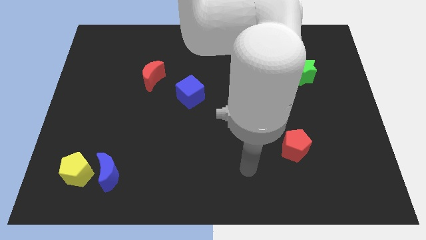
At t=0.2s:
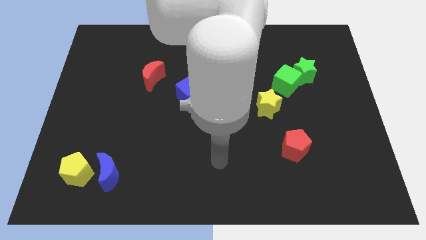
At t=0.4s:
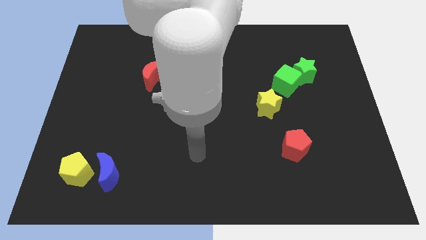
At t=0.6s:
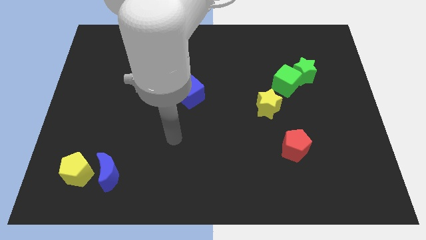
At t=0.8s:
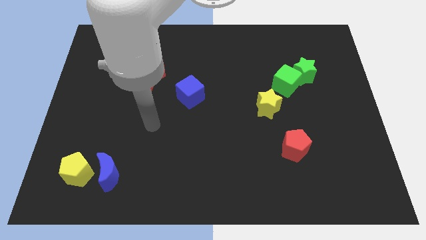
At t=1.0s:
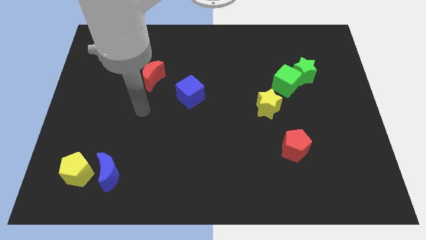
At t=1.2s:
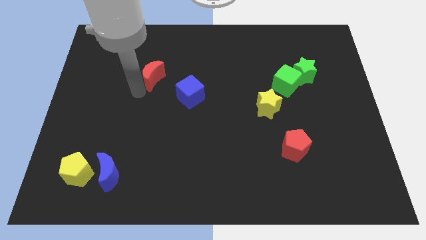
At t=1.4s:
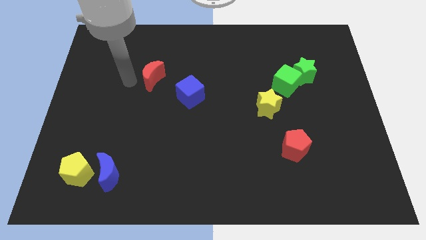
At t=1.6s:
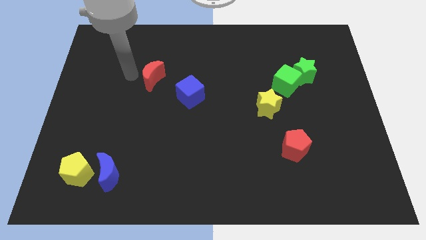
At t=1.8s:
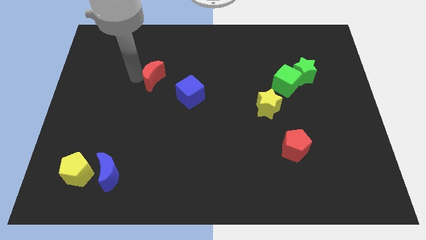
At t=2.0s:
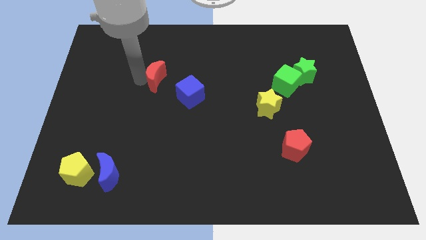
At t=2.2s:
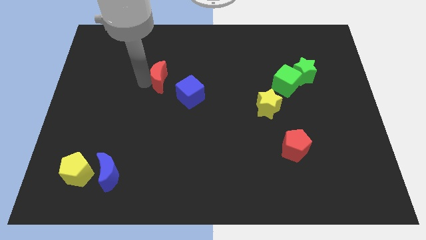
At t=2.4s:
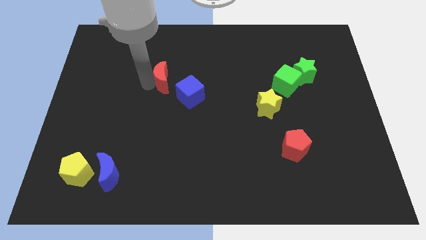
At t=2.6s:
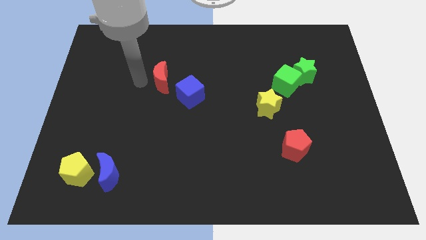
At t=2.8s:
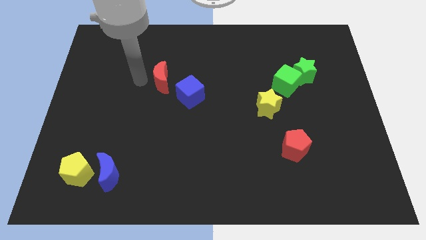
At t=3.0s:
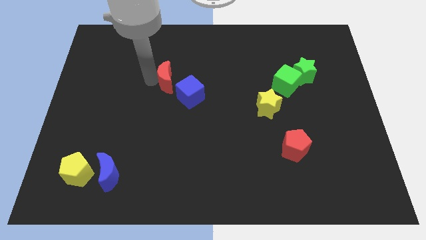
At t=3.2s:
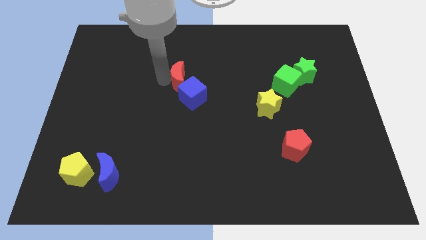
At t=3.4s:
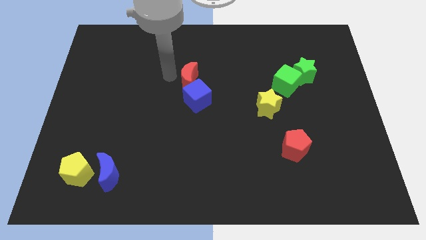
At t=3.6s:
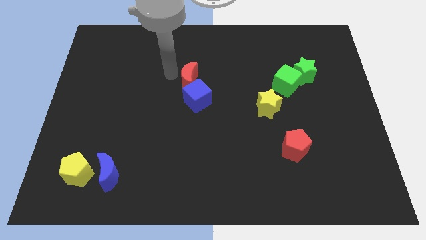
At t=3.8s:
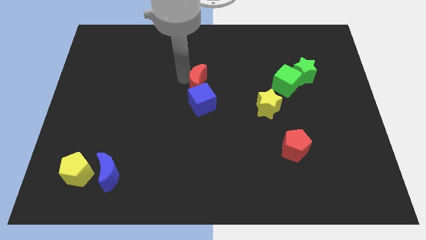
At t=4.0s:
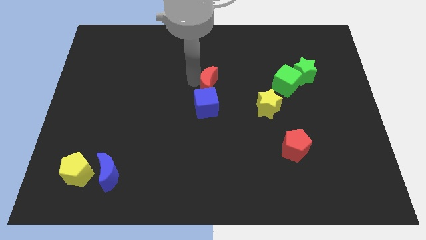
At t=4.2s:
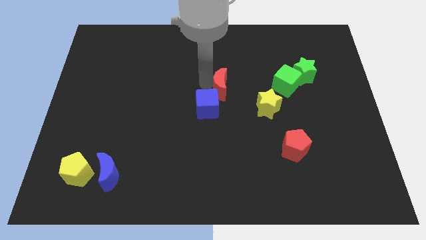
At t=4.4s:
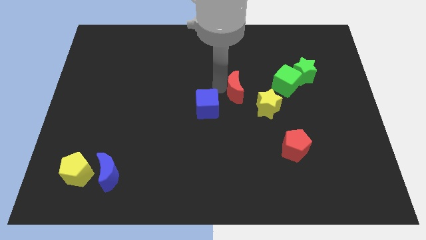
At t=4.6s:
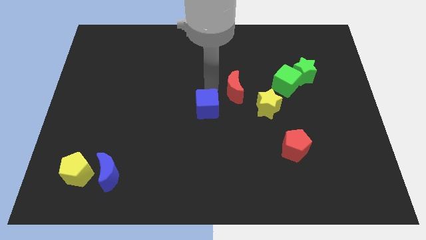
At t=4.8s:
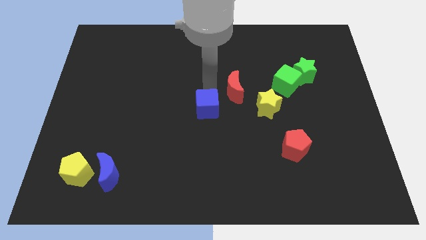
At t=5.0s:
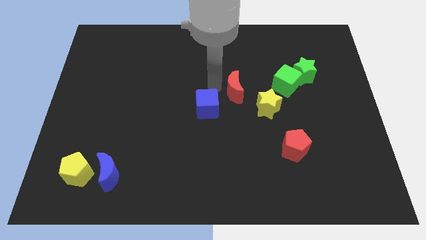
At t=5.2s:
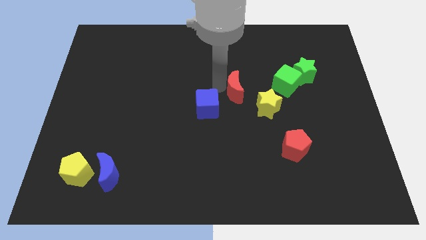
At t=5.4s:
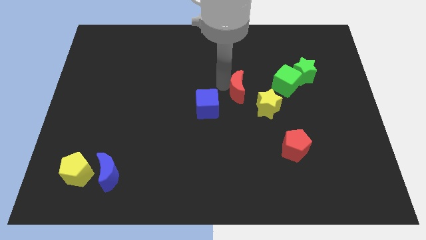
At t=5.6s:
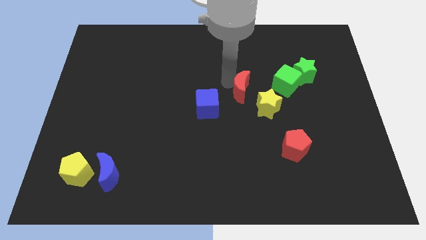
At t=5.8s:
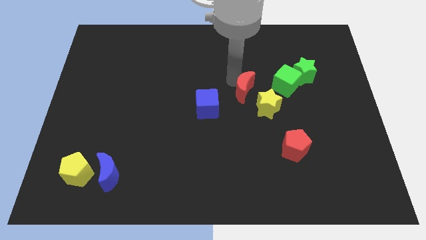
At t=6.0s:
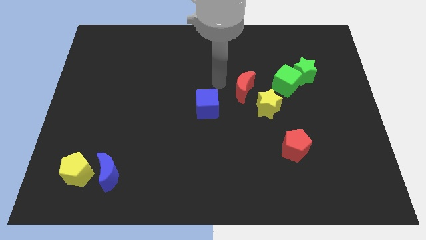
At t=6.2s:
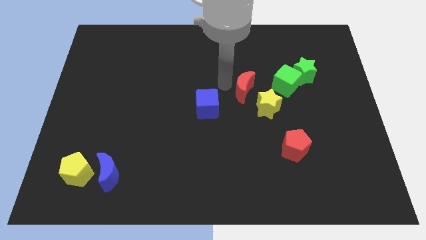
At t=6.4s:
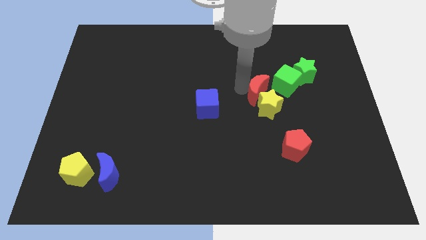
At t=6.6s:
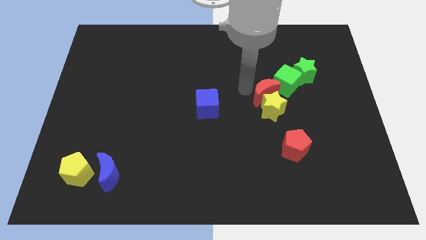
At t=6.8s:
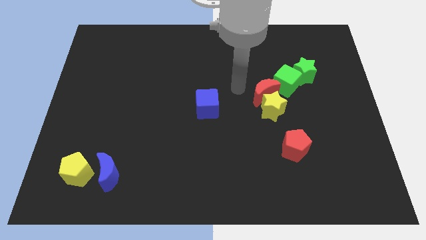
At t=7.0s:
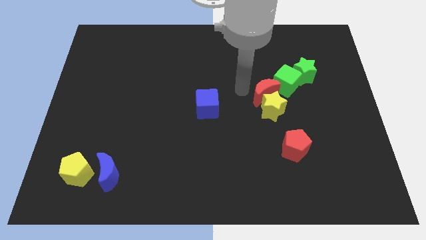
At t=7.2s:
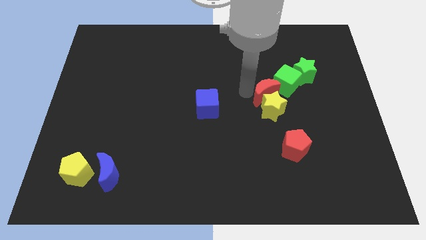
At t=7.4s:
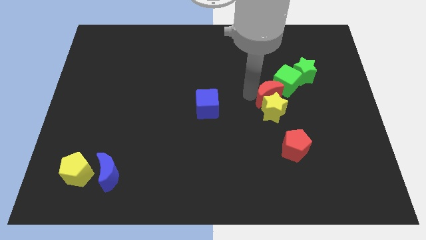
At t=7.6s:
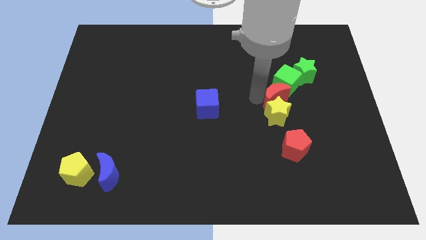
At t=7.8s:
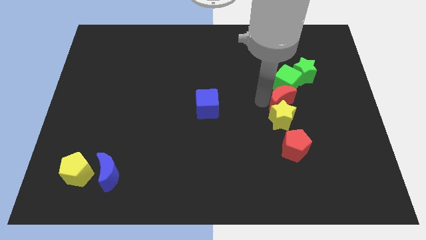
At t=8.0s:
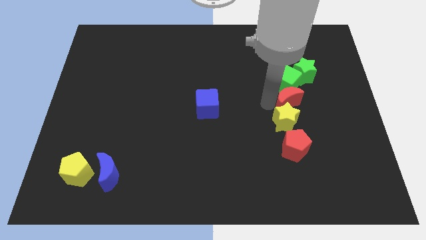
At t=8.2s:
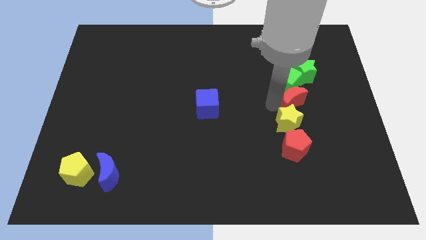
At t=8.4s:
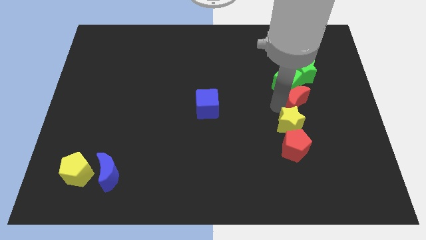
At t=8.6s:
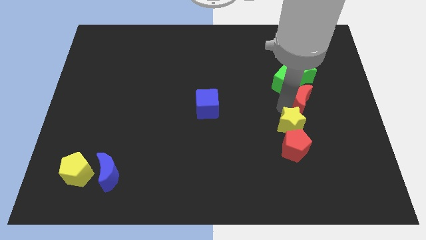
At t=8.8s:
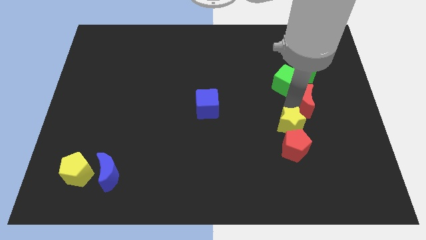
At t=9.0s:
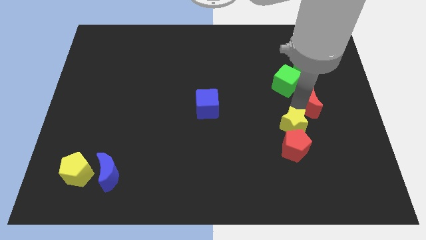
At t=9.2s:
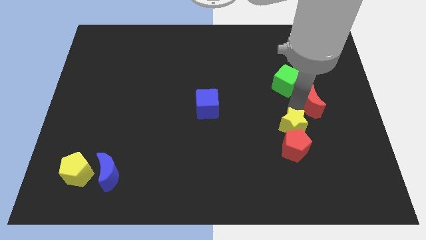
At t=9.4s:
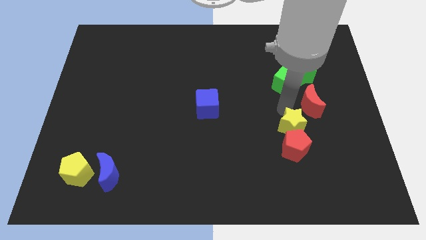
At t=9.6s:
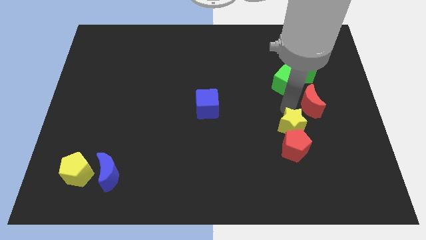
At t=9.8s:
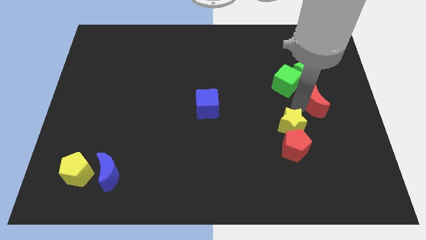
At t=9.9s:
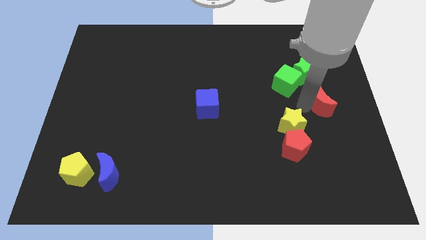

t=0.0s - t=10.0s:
push the red moon to the center right

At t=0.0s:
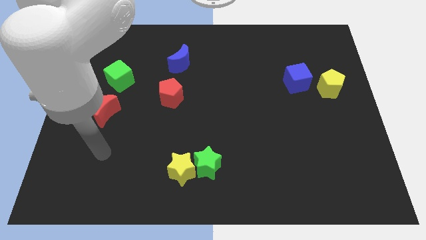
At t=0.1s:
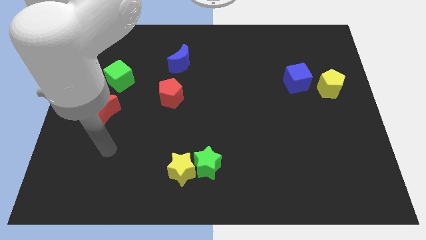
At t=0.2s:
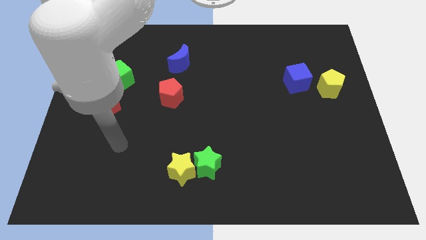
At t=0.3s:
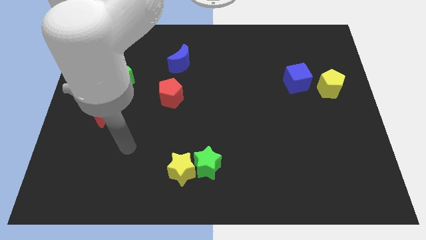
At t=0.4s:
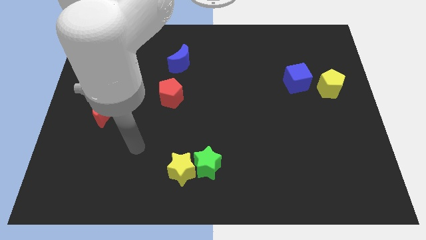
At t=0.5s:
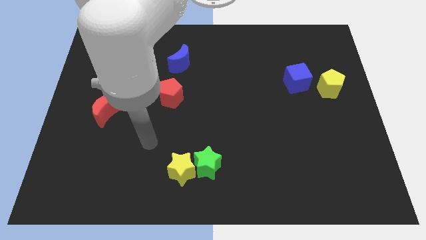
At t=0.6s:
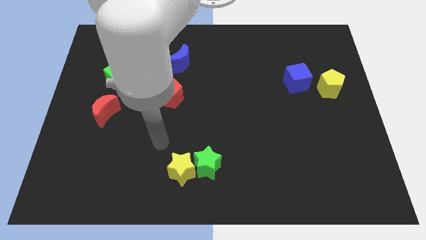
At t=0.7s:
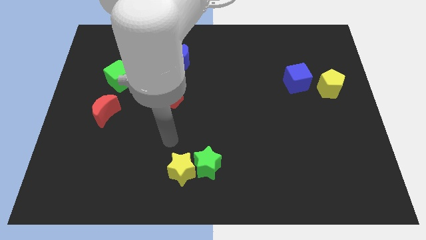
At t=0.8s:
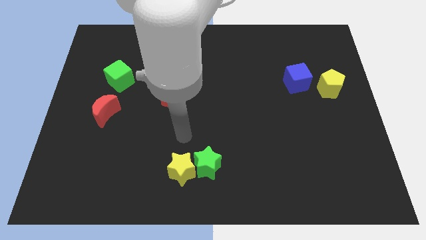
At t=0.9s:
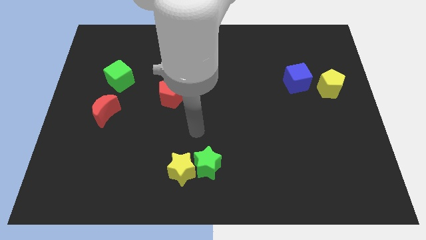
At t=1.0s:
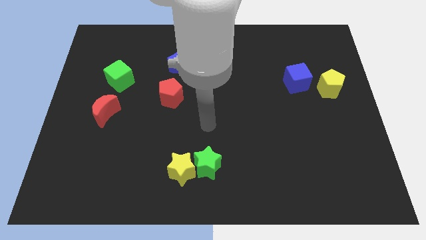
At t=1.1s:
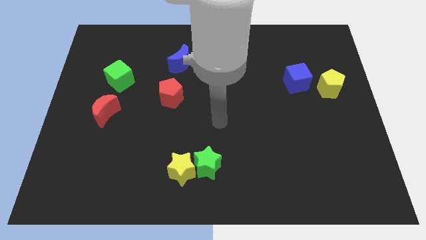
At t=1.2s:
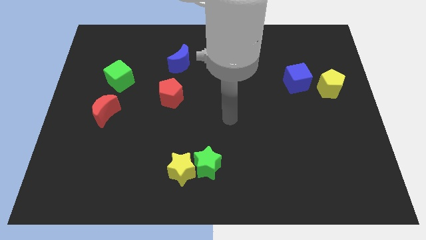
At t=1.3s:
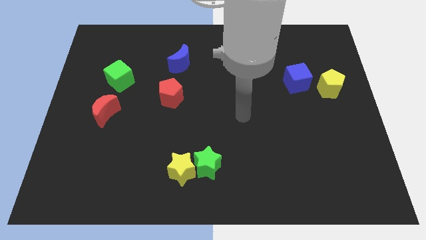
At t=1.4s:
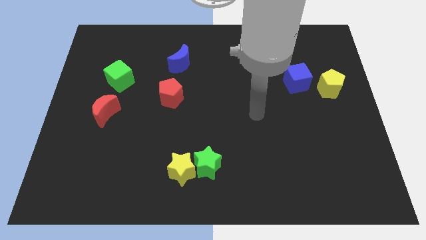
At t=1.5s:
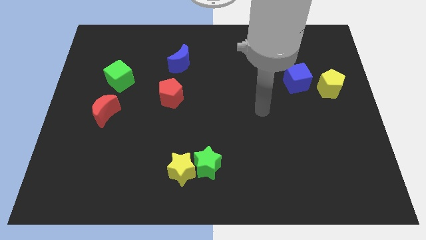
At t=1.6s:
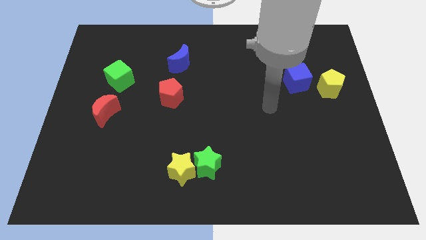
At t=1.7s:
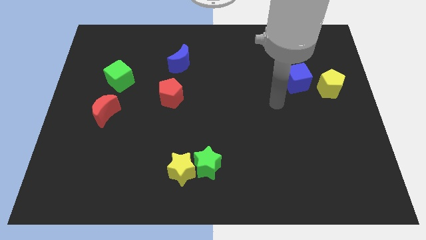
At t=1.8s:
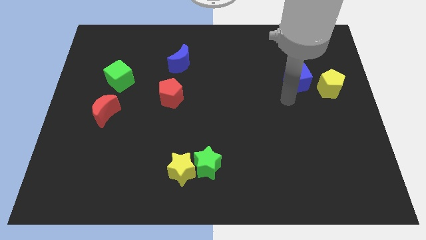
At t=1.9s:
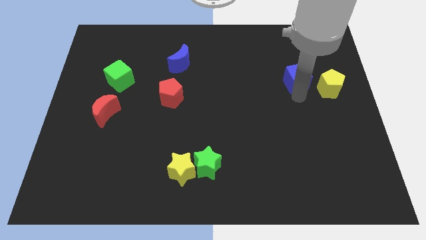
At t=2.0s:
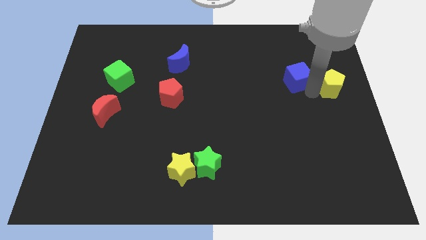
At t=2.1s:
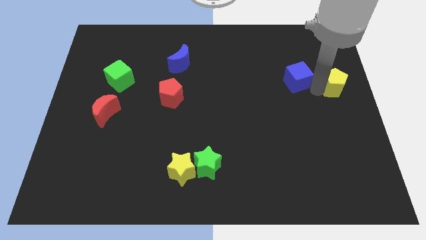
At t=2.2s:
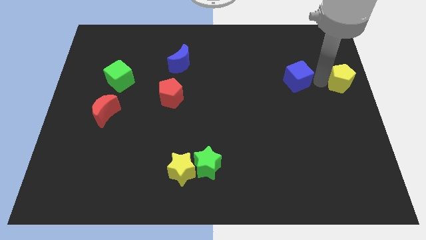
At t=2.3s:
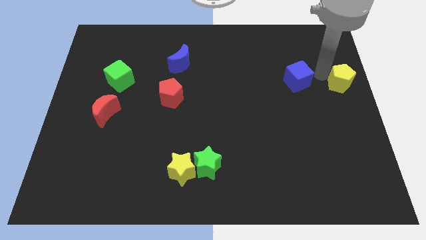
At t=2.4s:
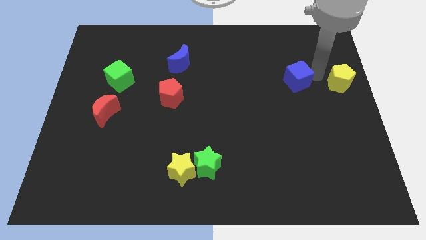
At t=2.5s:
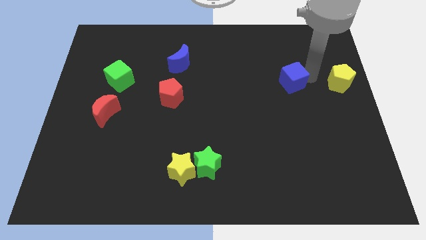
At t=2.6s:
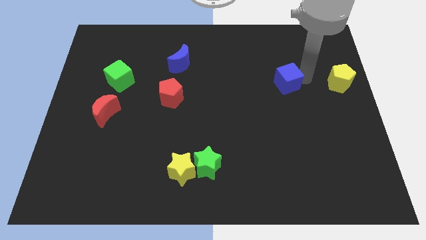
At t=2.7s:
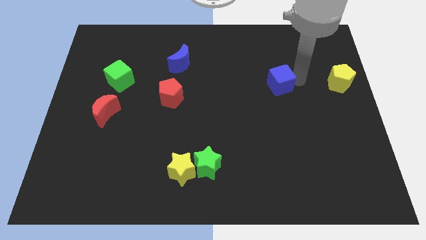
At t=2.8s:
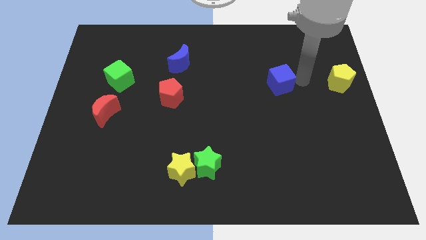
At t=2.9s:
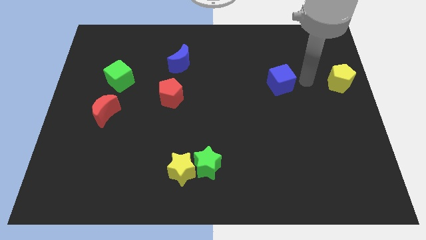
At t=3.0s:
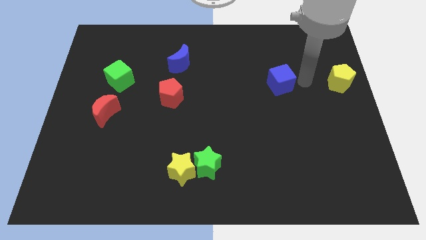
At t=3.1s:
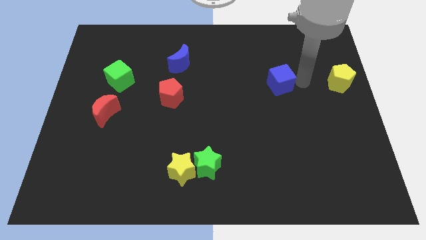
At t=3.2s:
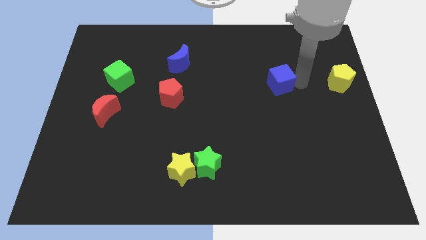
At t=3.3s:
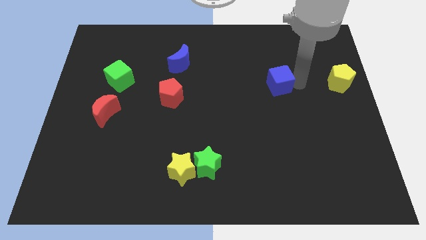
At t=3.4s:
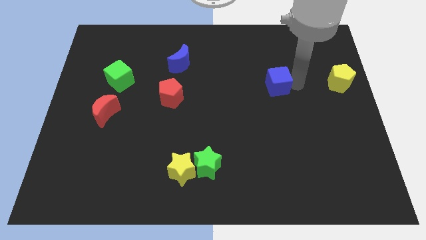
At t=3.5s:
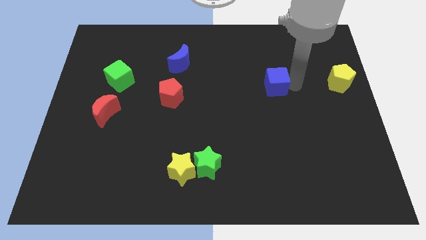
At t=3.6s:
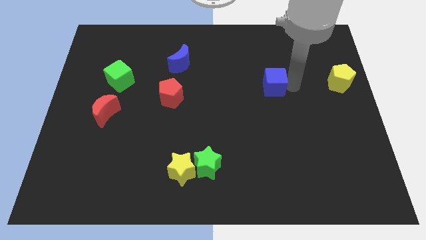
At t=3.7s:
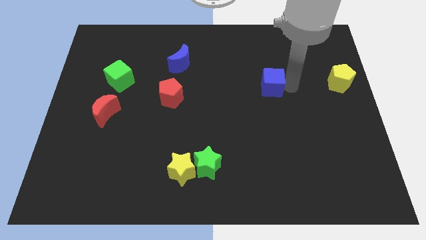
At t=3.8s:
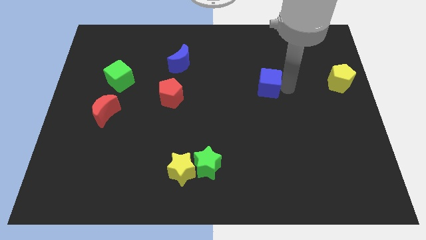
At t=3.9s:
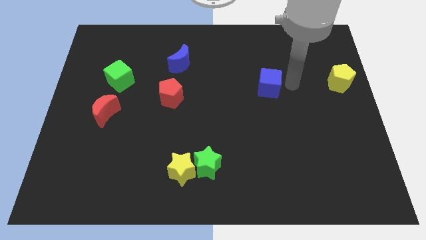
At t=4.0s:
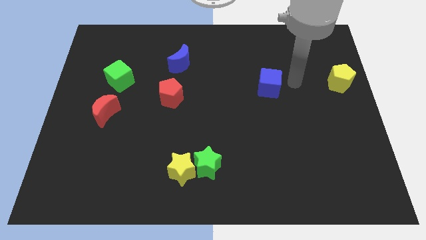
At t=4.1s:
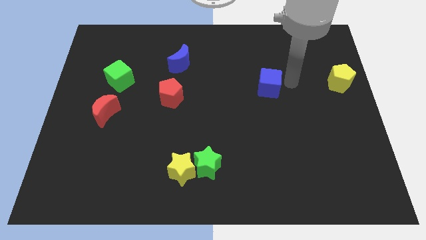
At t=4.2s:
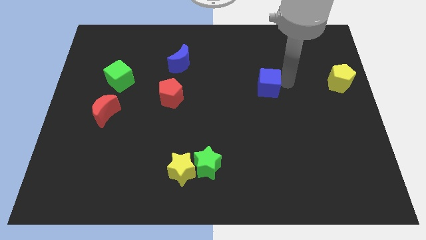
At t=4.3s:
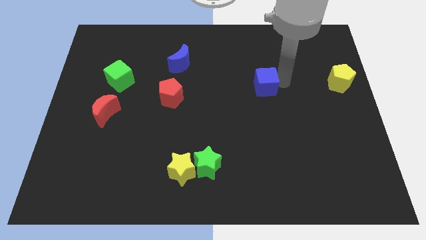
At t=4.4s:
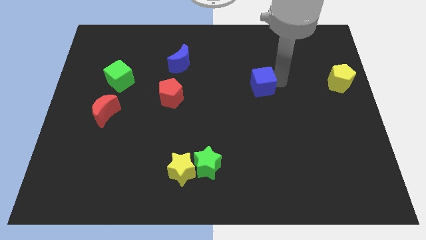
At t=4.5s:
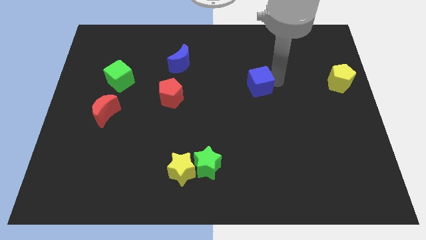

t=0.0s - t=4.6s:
move the blue cube to the center of the board
